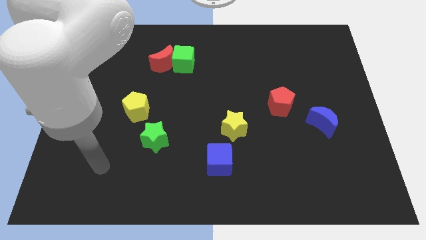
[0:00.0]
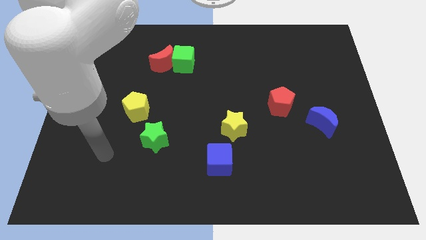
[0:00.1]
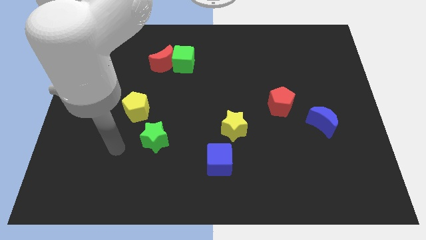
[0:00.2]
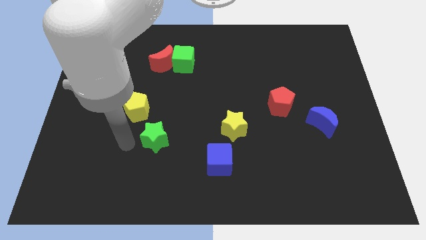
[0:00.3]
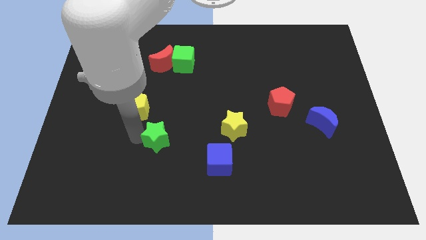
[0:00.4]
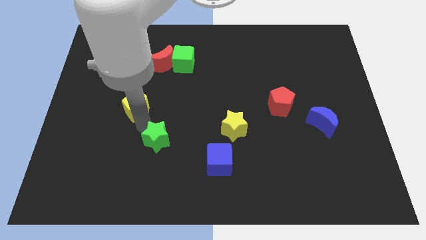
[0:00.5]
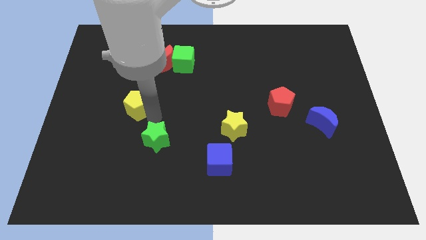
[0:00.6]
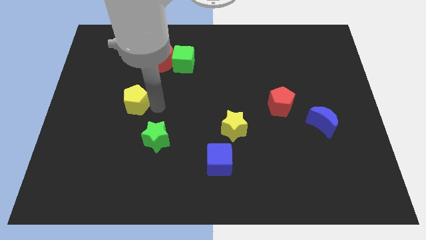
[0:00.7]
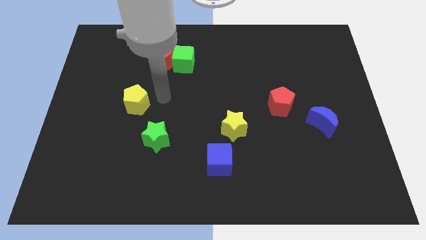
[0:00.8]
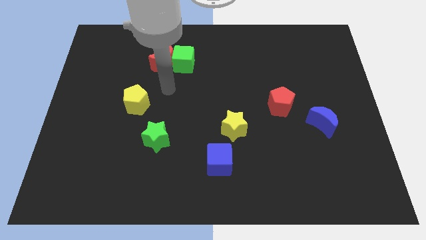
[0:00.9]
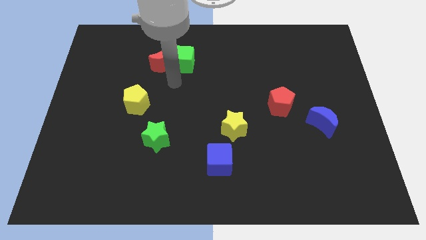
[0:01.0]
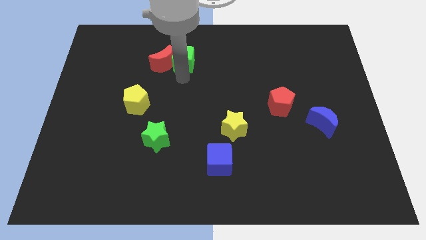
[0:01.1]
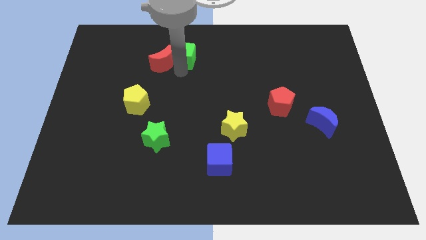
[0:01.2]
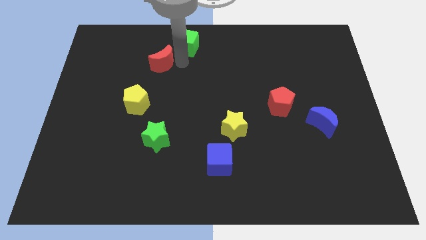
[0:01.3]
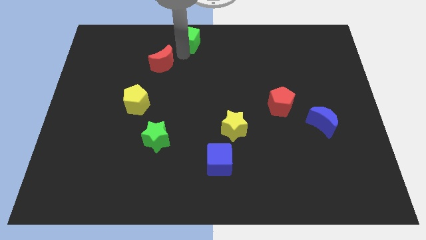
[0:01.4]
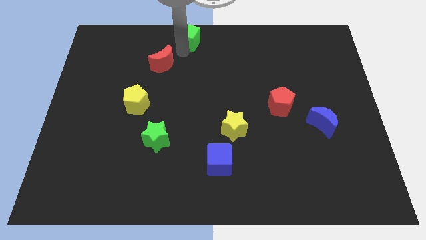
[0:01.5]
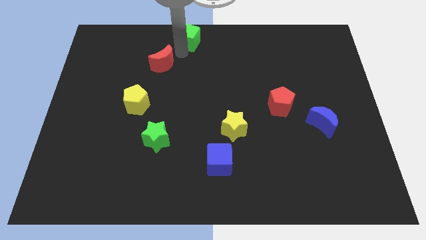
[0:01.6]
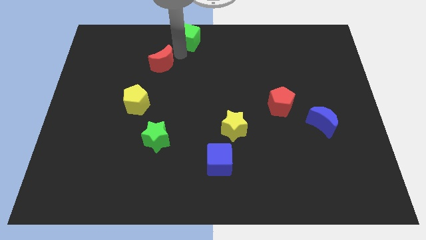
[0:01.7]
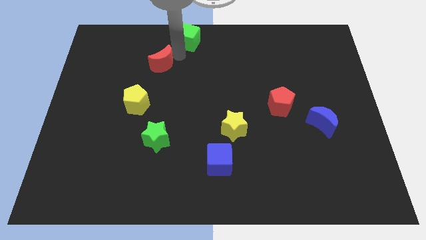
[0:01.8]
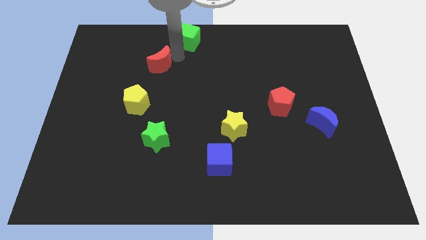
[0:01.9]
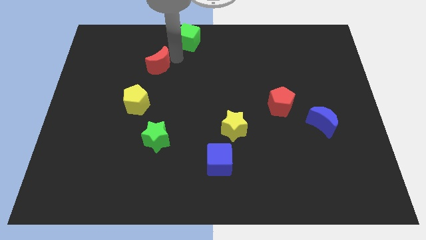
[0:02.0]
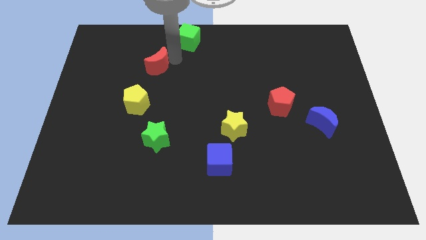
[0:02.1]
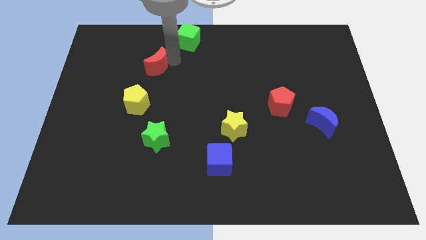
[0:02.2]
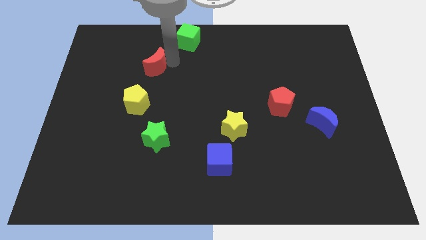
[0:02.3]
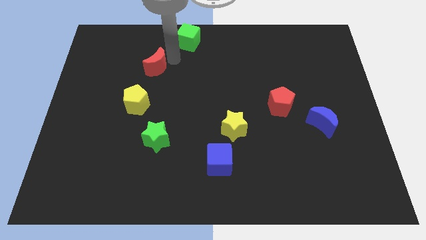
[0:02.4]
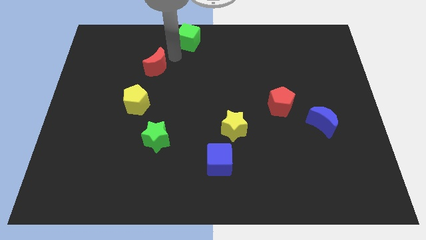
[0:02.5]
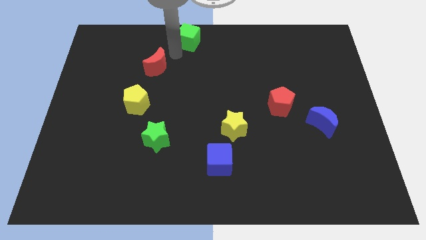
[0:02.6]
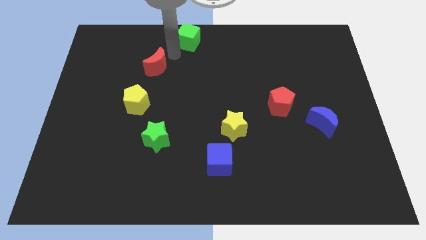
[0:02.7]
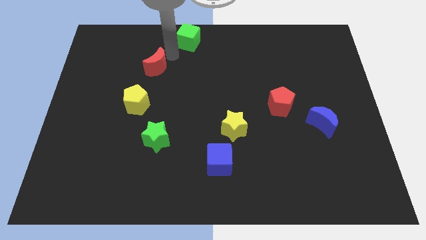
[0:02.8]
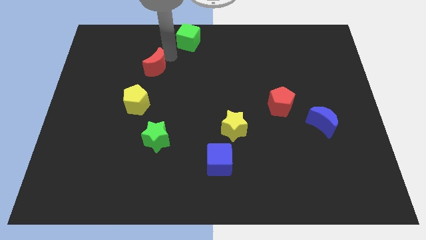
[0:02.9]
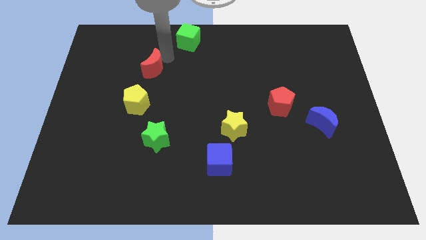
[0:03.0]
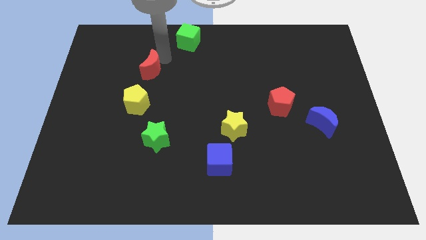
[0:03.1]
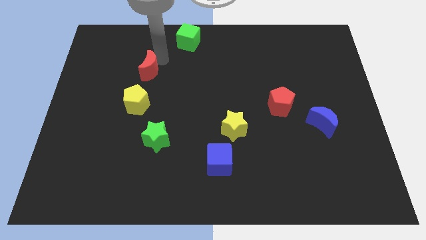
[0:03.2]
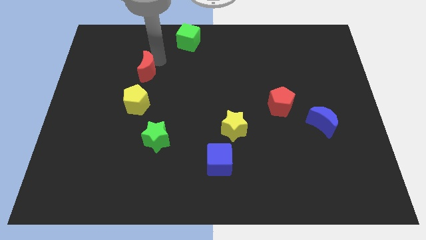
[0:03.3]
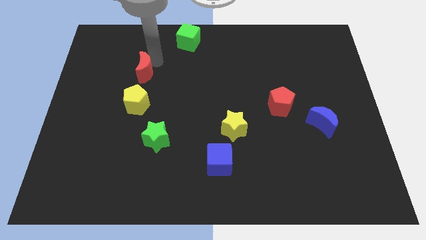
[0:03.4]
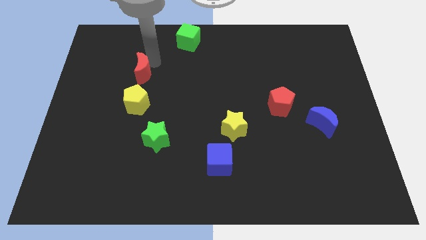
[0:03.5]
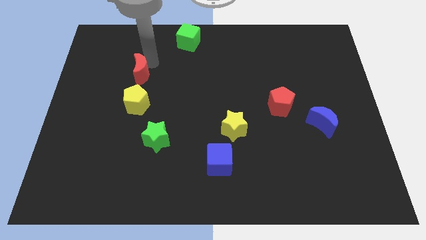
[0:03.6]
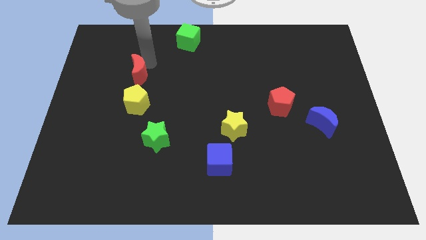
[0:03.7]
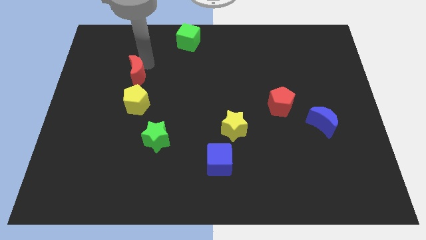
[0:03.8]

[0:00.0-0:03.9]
move the red moon a bit down and left diagonally

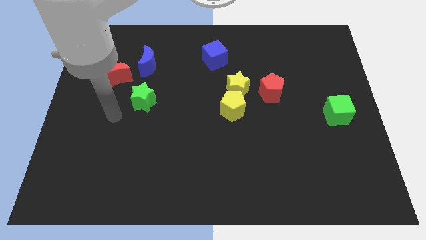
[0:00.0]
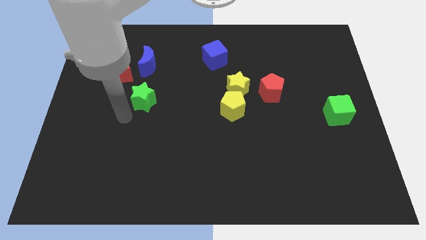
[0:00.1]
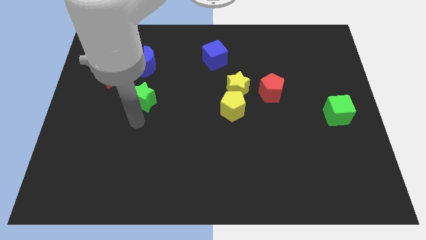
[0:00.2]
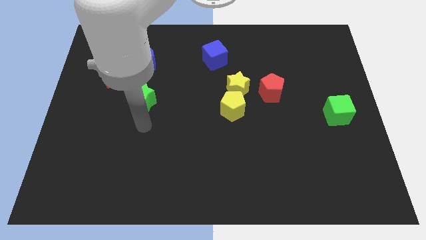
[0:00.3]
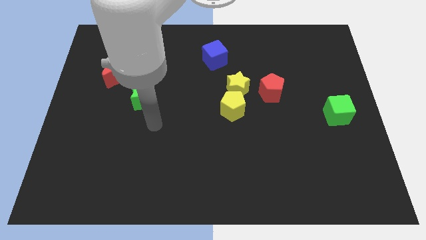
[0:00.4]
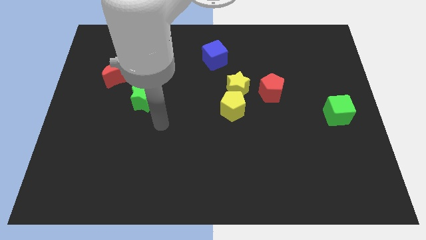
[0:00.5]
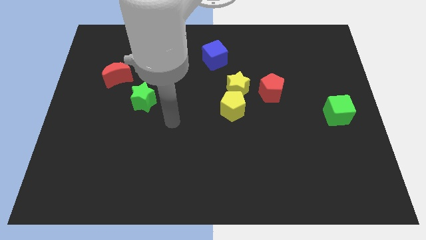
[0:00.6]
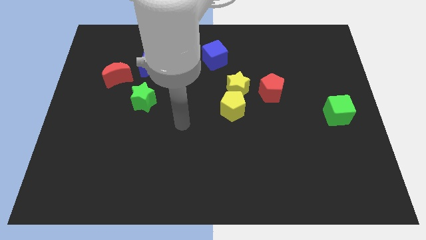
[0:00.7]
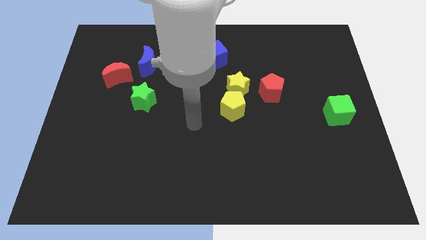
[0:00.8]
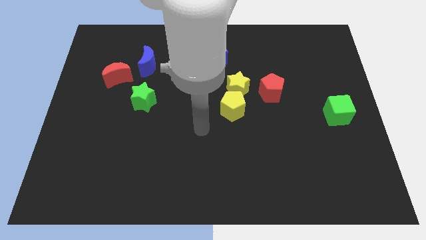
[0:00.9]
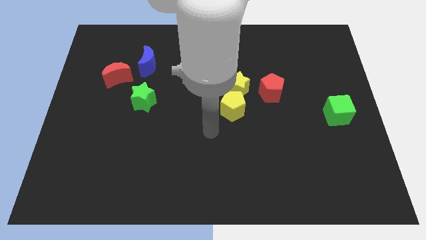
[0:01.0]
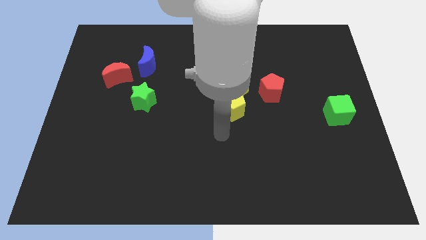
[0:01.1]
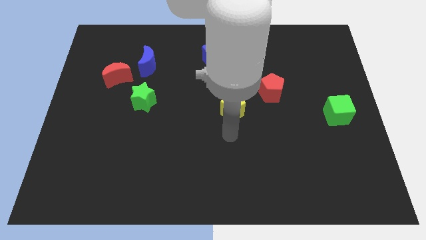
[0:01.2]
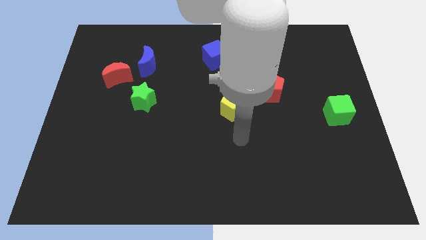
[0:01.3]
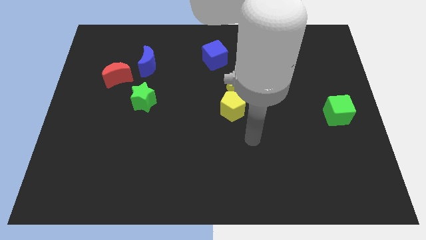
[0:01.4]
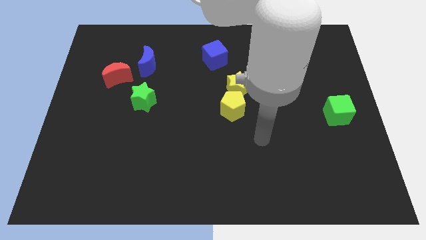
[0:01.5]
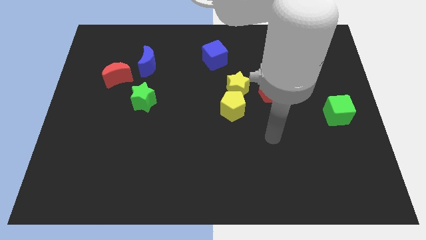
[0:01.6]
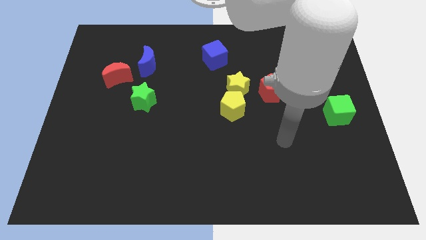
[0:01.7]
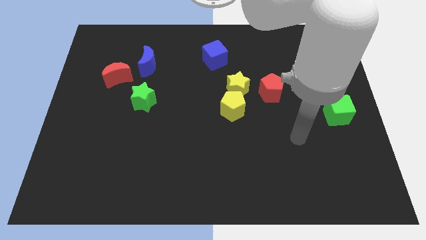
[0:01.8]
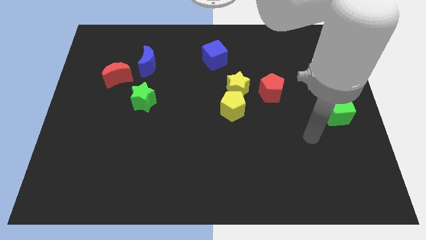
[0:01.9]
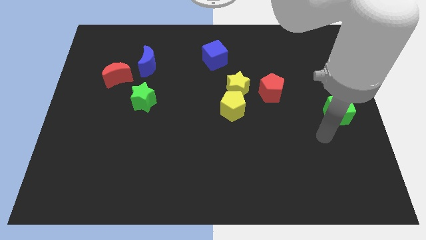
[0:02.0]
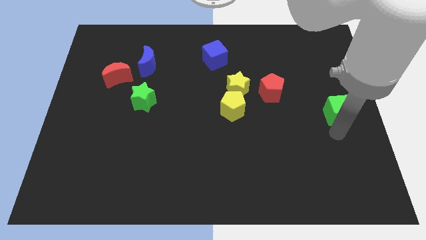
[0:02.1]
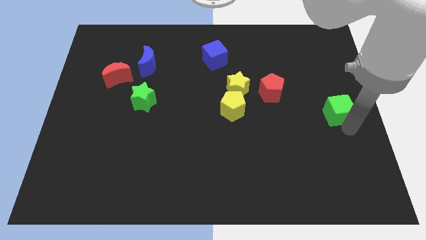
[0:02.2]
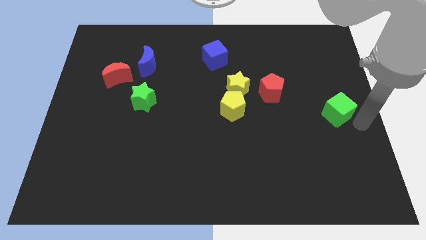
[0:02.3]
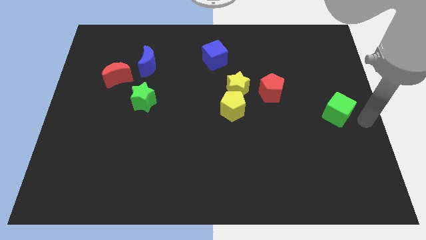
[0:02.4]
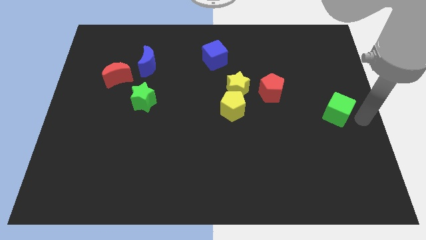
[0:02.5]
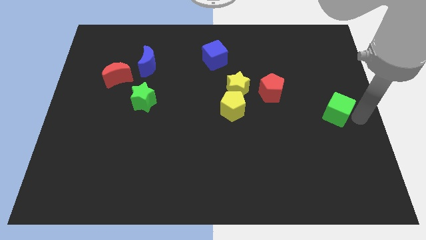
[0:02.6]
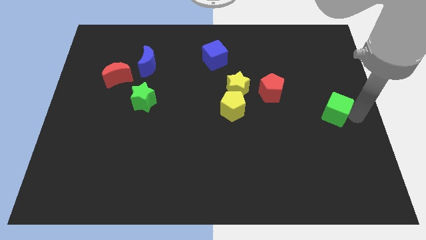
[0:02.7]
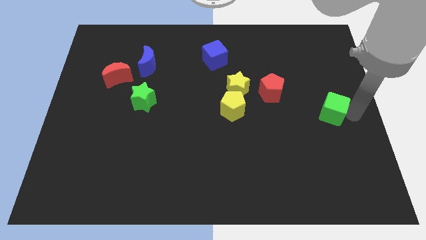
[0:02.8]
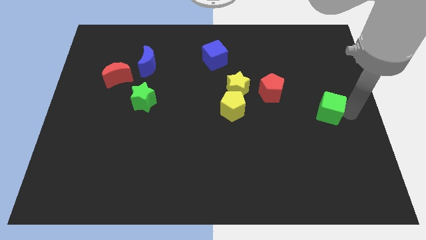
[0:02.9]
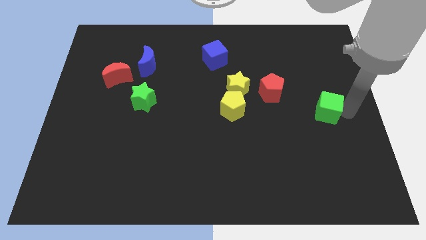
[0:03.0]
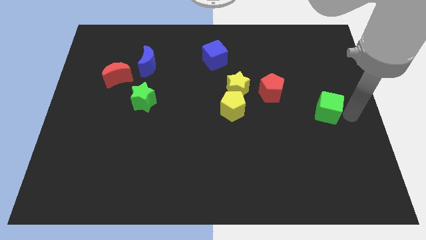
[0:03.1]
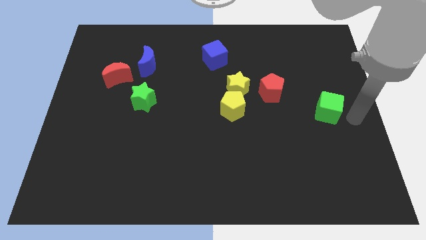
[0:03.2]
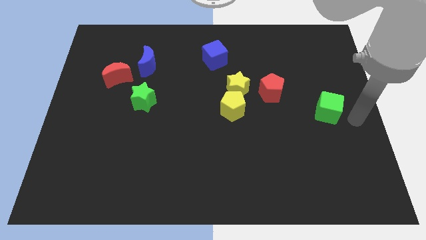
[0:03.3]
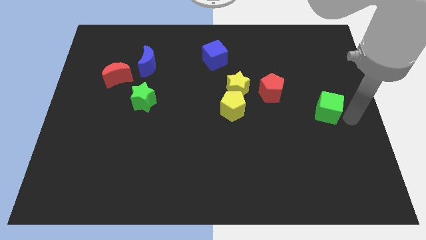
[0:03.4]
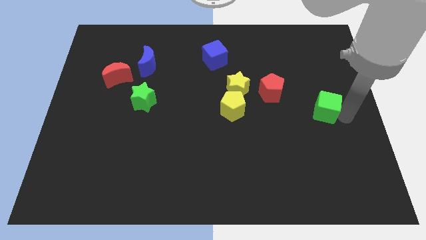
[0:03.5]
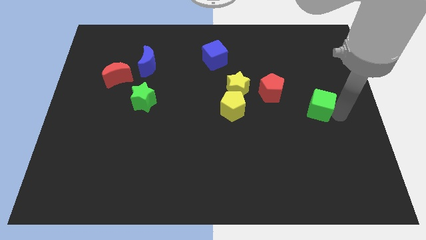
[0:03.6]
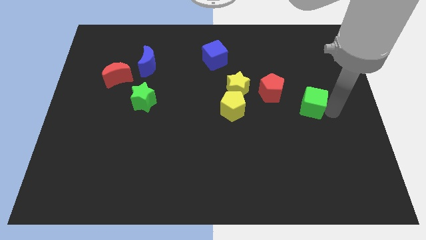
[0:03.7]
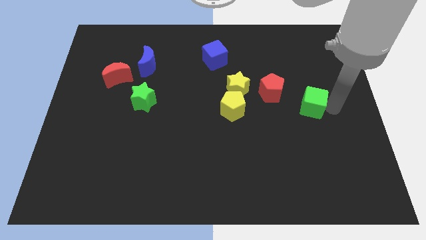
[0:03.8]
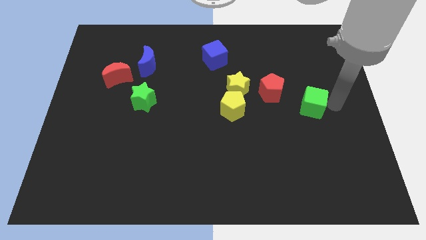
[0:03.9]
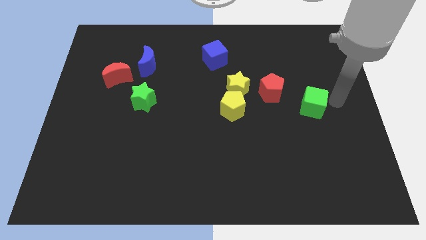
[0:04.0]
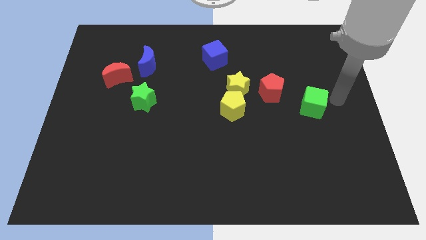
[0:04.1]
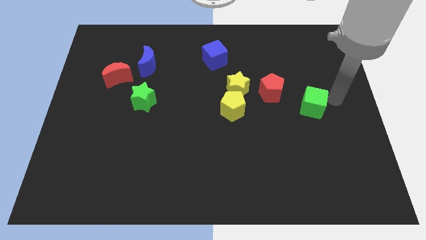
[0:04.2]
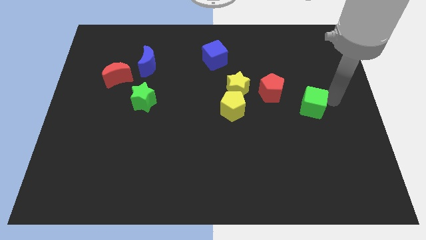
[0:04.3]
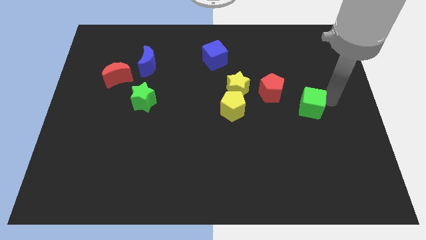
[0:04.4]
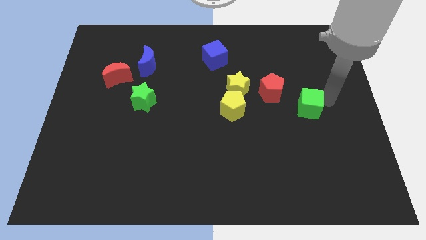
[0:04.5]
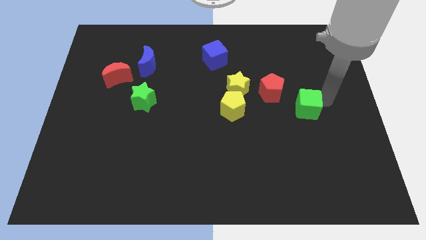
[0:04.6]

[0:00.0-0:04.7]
push the green cube a bit left
